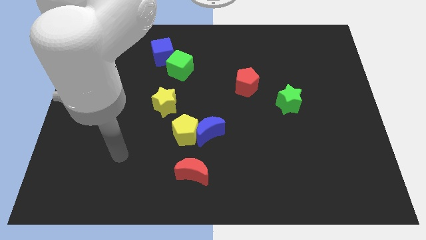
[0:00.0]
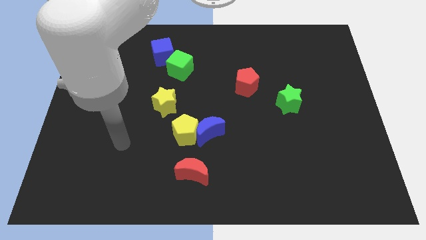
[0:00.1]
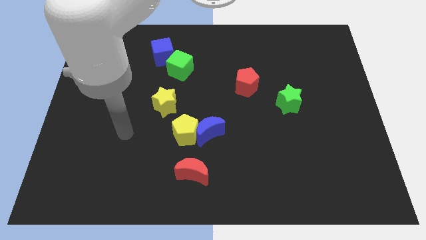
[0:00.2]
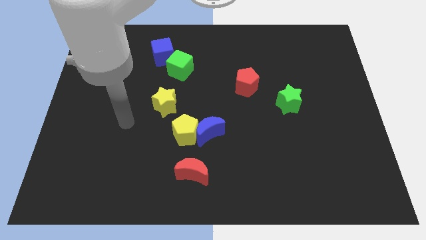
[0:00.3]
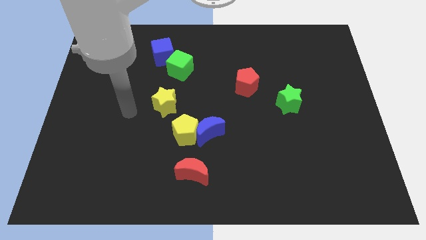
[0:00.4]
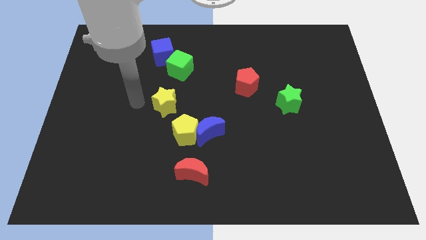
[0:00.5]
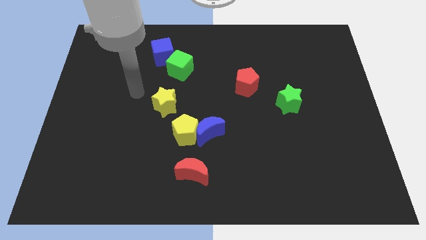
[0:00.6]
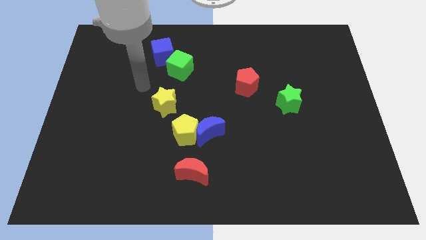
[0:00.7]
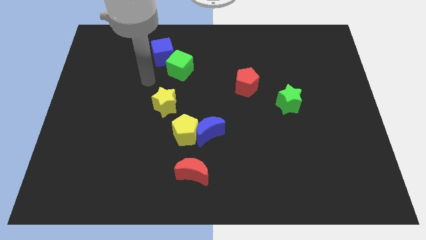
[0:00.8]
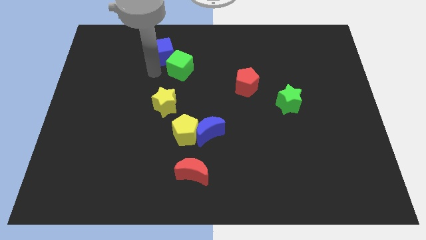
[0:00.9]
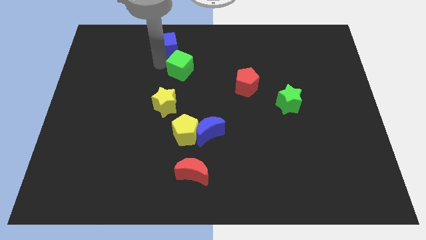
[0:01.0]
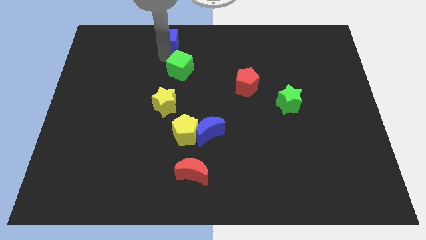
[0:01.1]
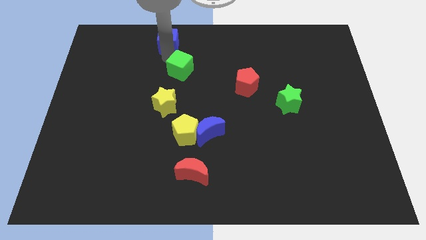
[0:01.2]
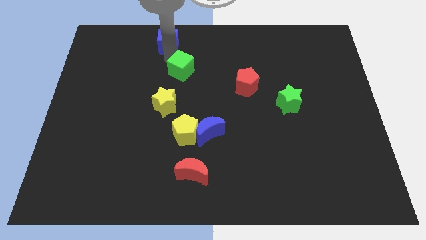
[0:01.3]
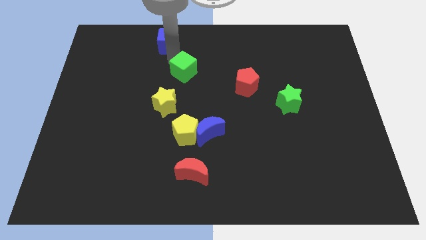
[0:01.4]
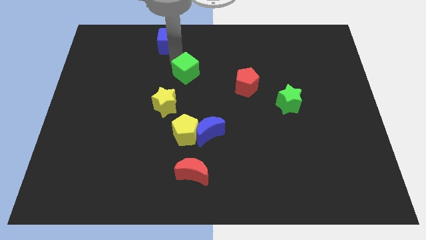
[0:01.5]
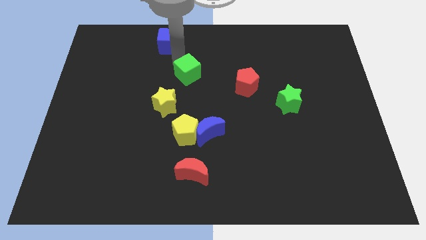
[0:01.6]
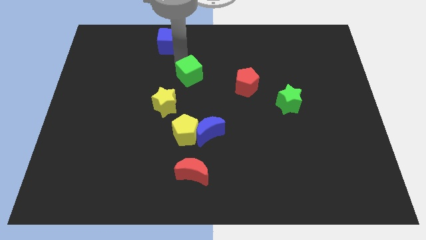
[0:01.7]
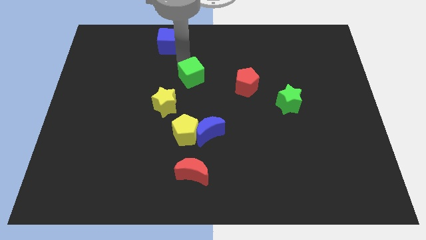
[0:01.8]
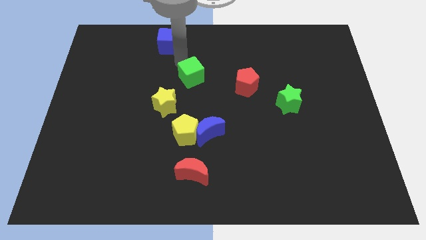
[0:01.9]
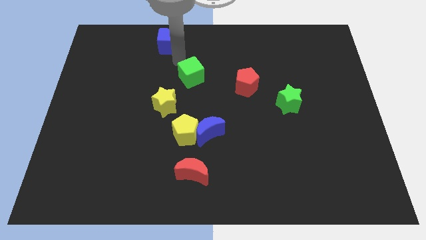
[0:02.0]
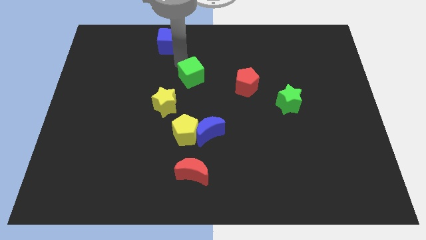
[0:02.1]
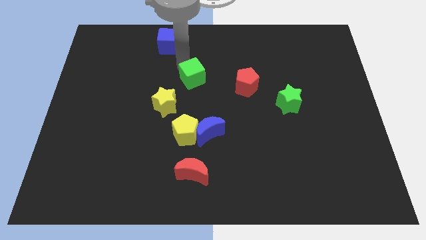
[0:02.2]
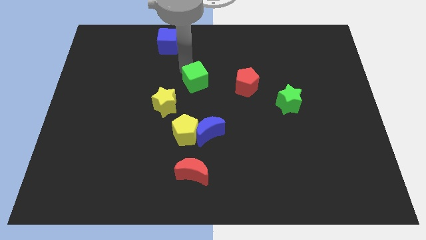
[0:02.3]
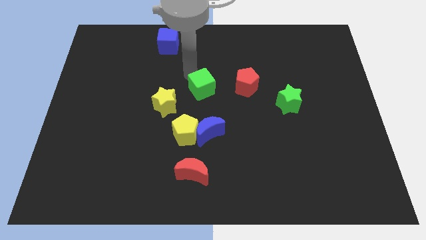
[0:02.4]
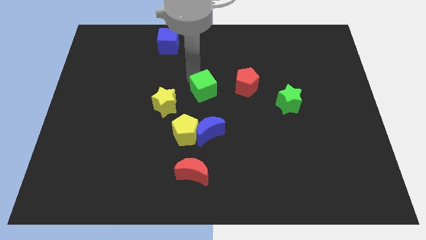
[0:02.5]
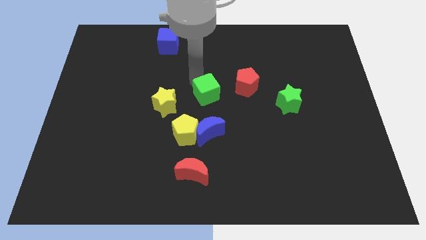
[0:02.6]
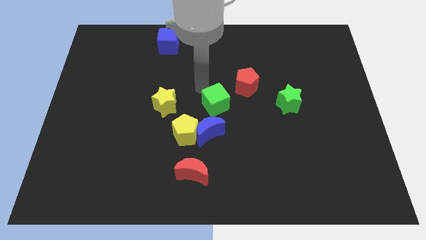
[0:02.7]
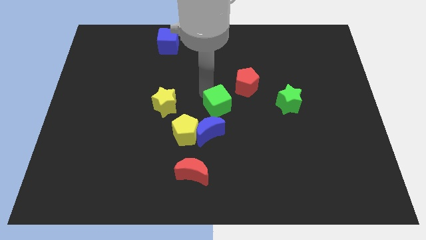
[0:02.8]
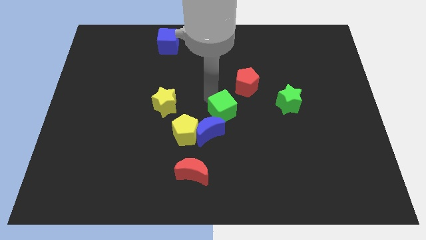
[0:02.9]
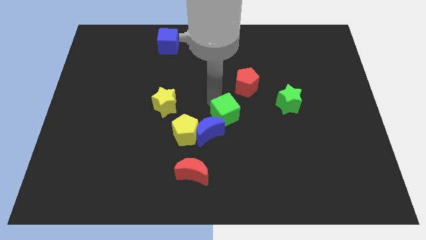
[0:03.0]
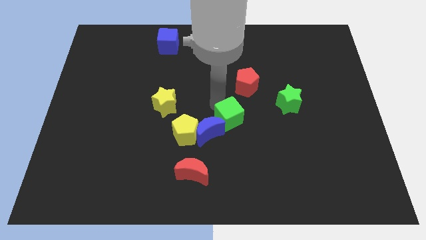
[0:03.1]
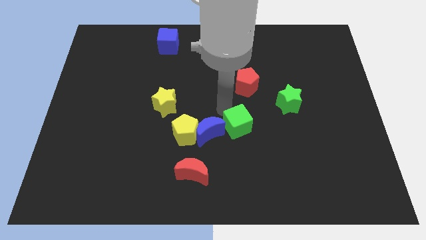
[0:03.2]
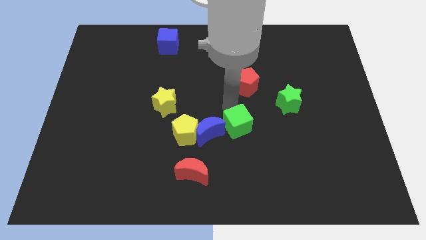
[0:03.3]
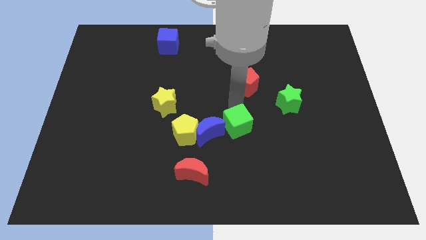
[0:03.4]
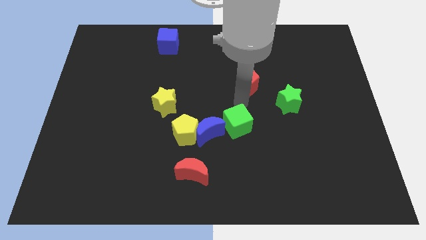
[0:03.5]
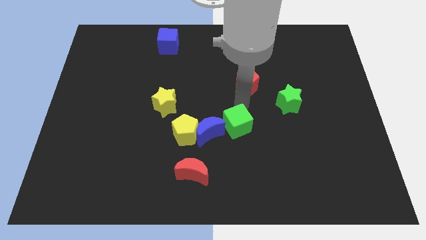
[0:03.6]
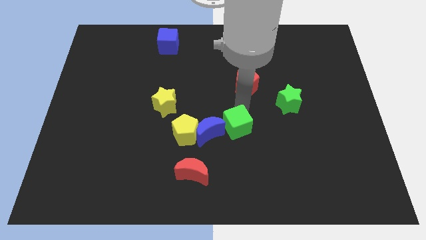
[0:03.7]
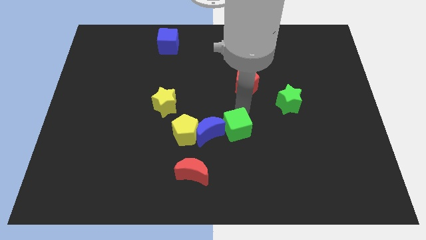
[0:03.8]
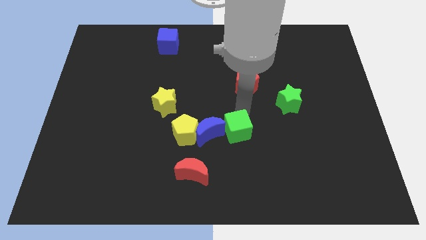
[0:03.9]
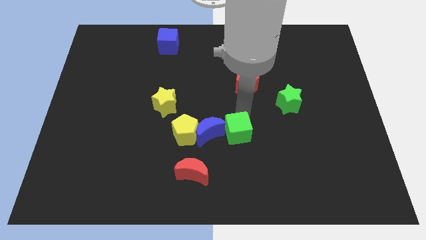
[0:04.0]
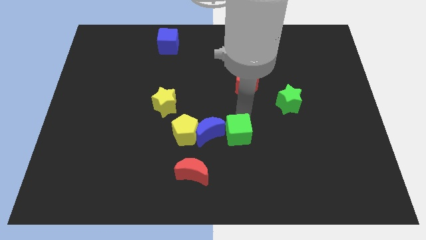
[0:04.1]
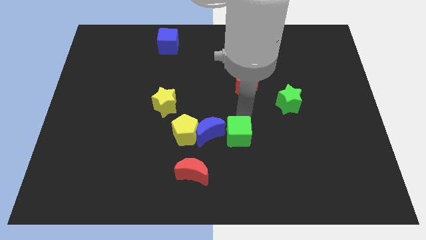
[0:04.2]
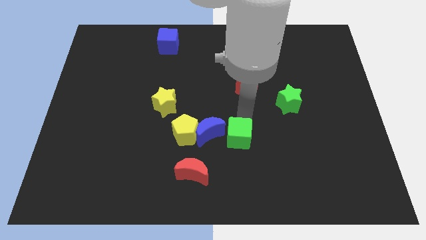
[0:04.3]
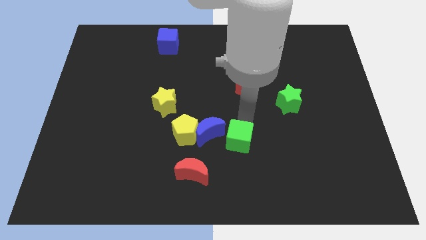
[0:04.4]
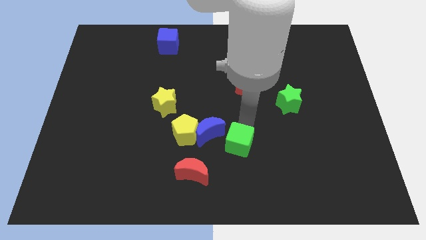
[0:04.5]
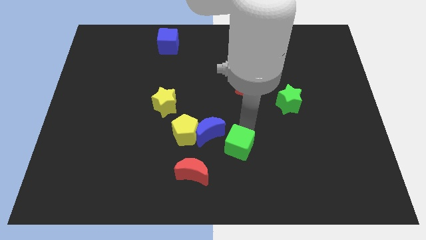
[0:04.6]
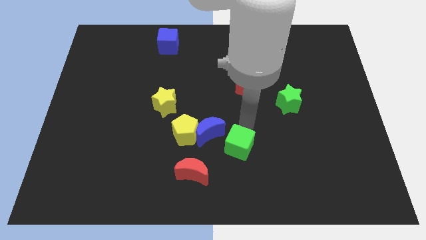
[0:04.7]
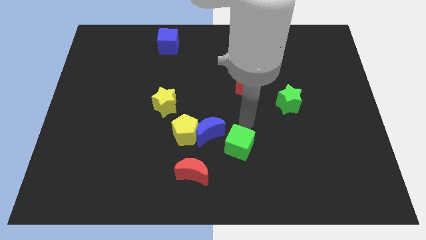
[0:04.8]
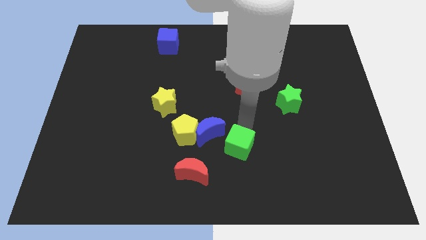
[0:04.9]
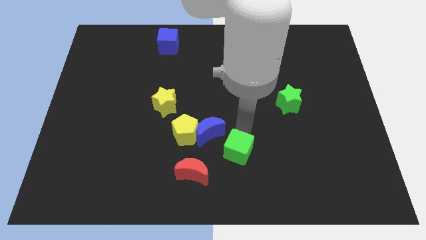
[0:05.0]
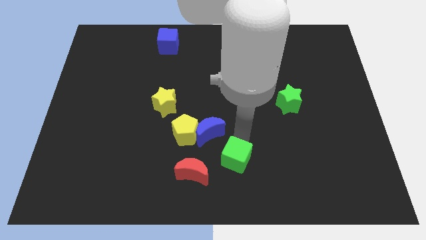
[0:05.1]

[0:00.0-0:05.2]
slide the green cube to the bottom side

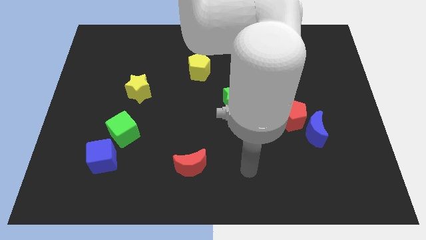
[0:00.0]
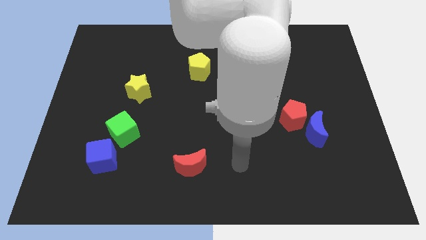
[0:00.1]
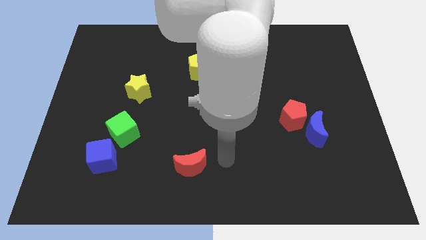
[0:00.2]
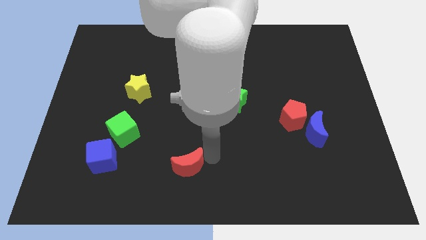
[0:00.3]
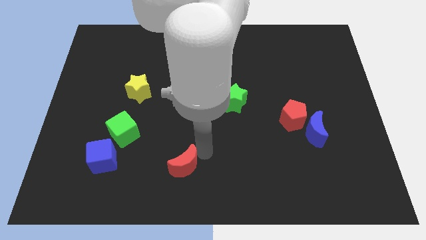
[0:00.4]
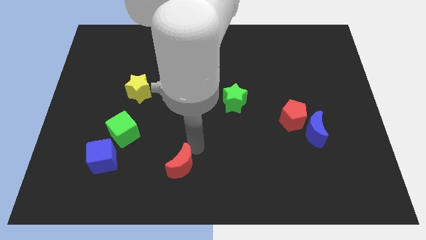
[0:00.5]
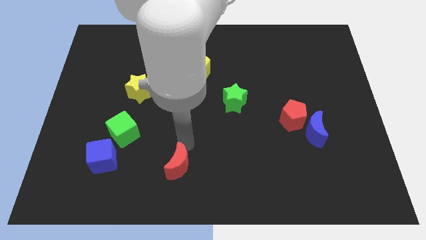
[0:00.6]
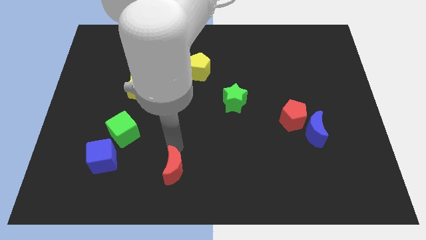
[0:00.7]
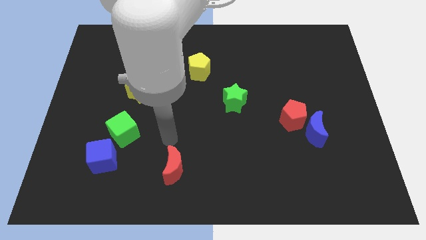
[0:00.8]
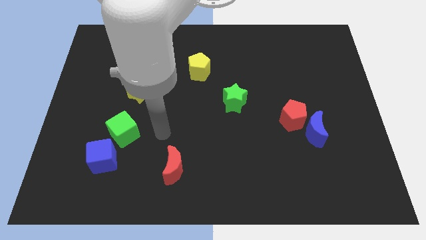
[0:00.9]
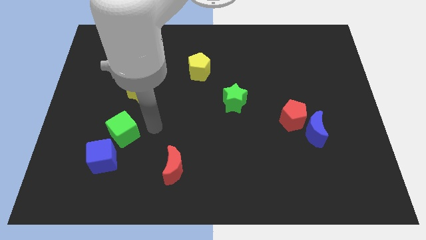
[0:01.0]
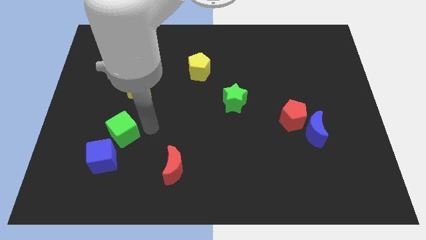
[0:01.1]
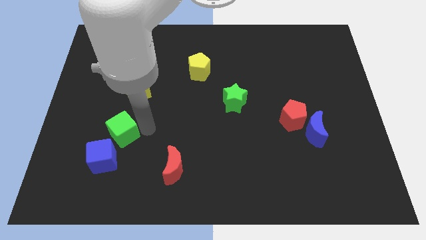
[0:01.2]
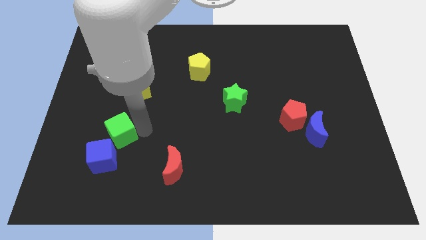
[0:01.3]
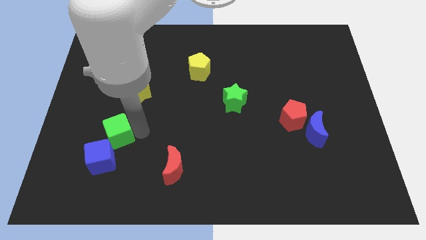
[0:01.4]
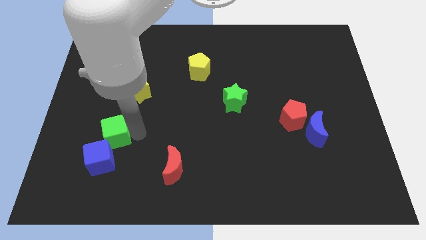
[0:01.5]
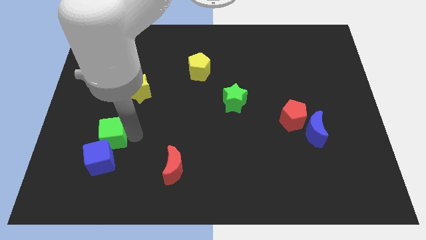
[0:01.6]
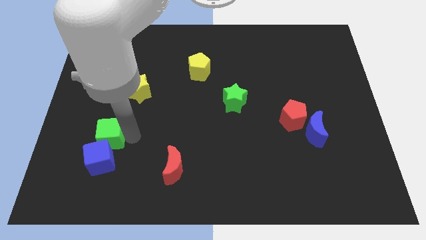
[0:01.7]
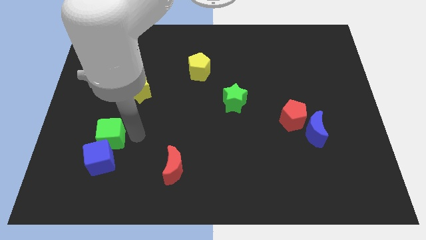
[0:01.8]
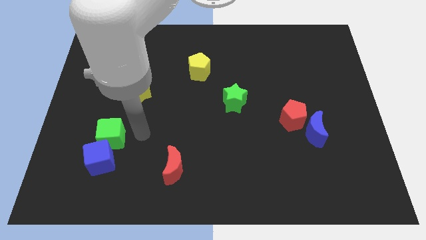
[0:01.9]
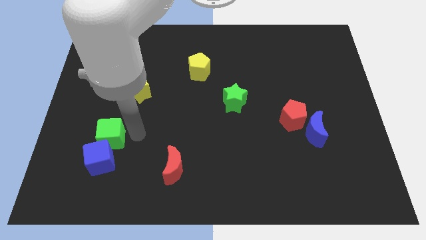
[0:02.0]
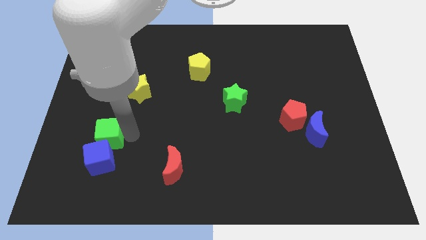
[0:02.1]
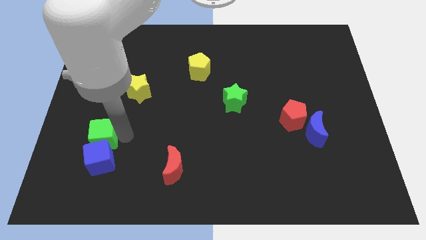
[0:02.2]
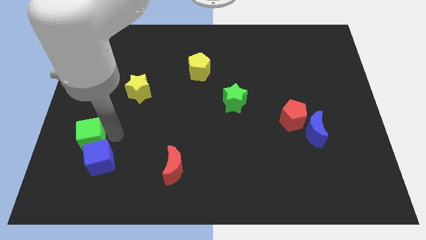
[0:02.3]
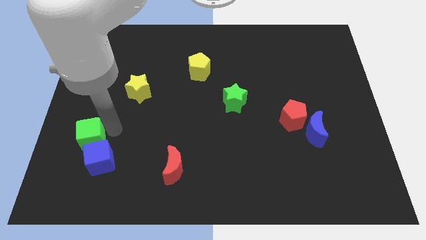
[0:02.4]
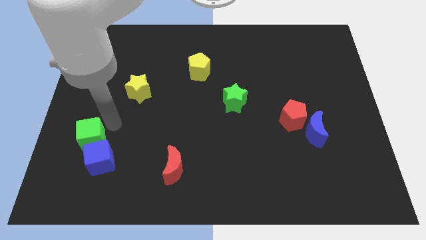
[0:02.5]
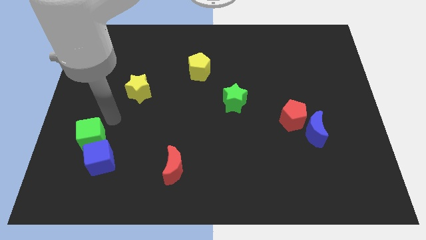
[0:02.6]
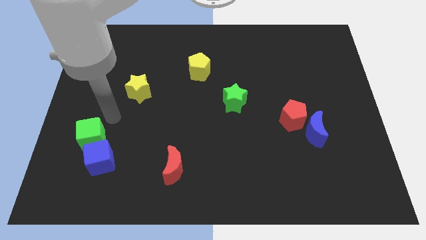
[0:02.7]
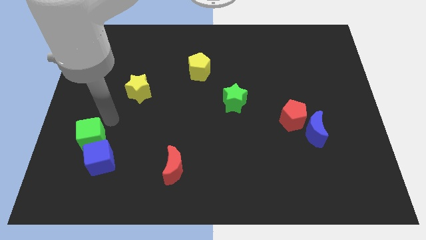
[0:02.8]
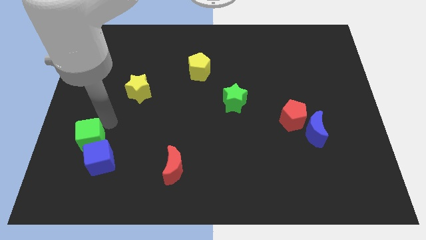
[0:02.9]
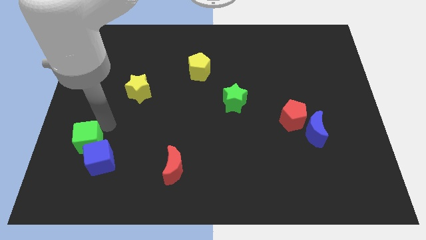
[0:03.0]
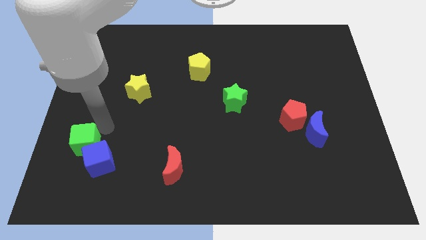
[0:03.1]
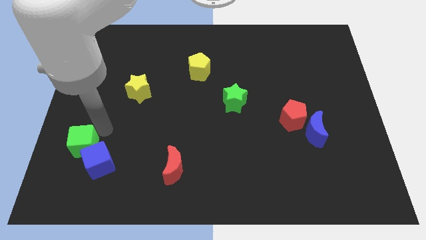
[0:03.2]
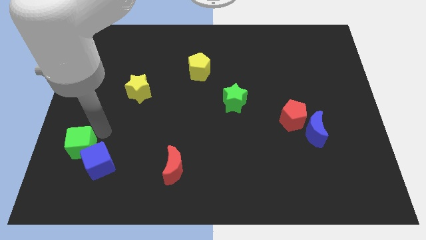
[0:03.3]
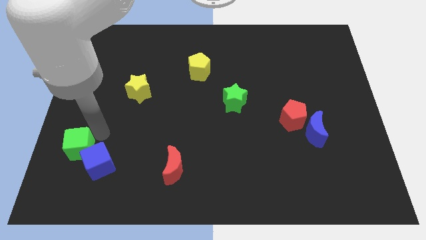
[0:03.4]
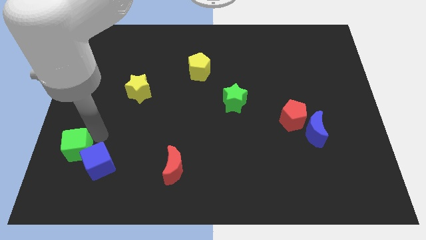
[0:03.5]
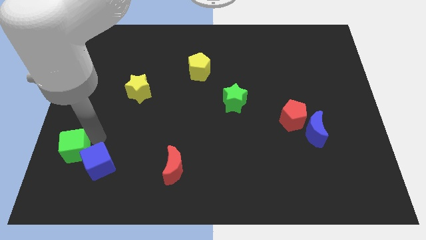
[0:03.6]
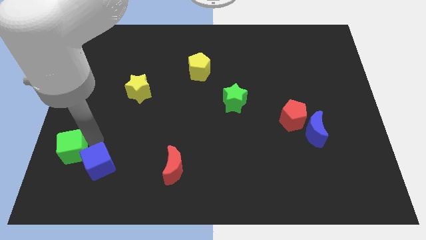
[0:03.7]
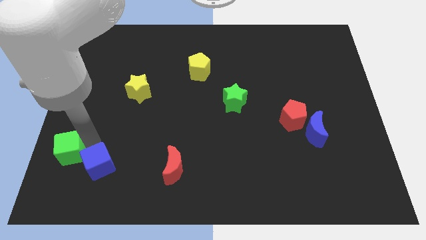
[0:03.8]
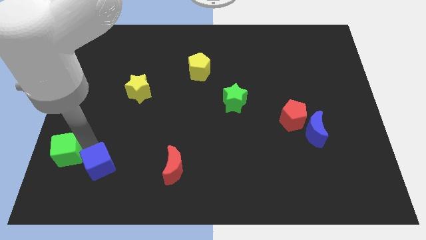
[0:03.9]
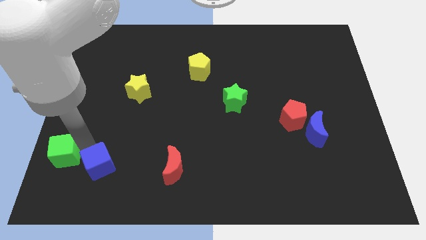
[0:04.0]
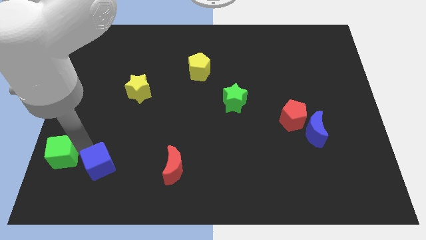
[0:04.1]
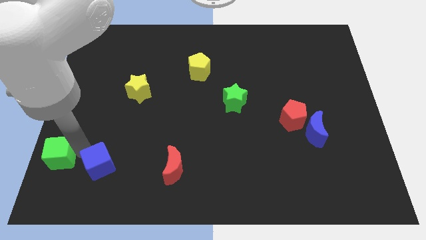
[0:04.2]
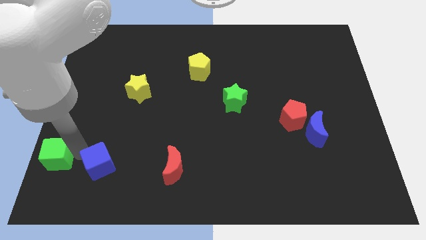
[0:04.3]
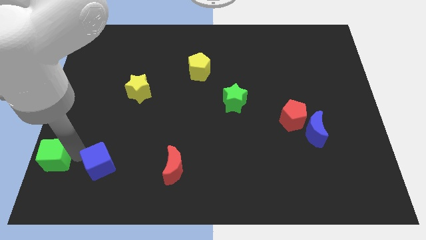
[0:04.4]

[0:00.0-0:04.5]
put the green cube to the bottom left of the board
